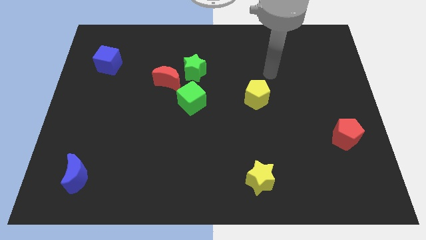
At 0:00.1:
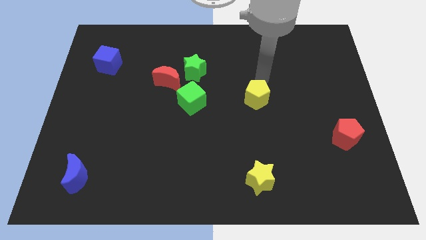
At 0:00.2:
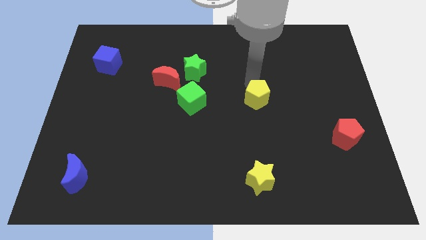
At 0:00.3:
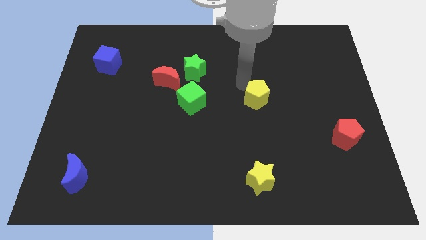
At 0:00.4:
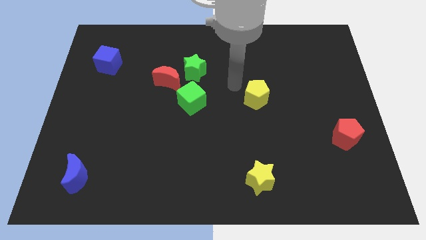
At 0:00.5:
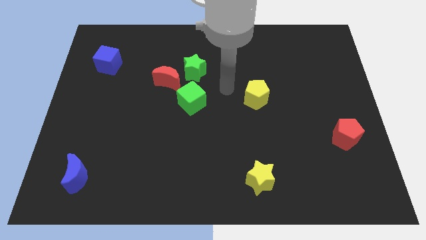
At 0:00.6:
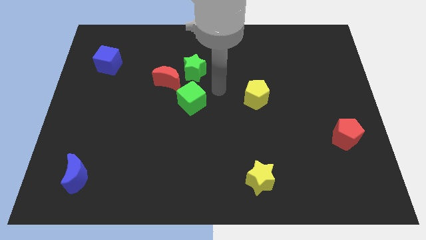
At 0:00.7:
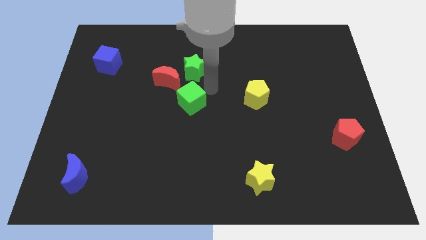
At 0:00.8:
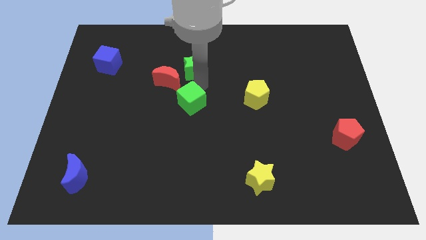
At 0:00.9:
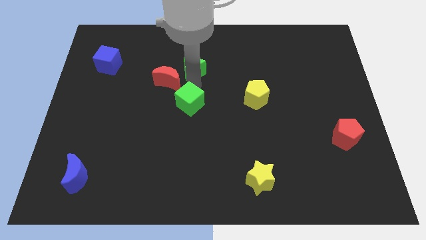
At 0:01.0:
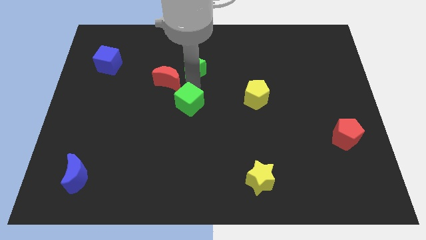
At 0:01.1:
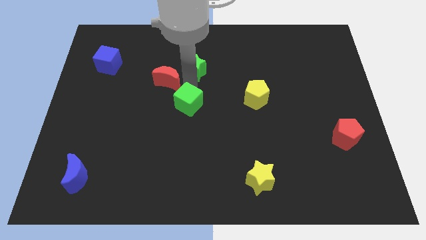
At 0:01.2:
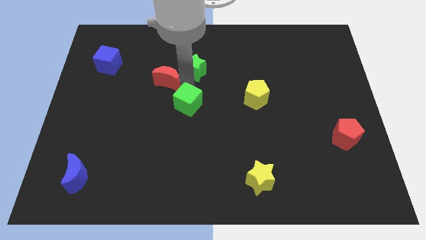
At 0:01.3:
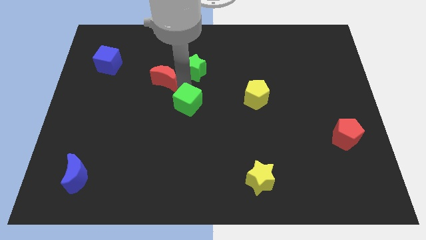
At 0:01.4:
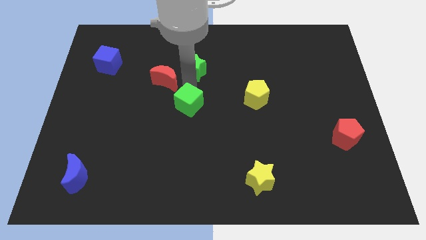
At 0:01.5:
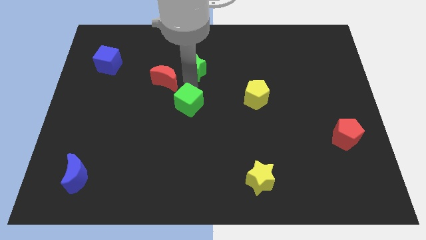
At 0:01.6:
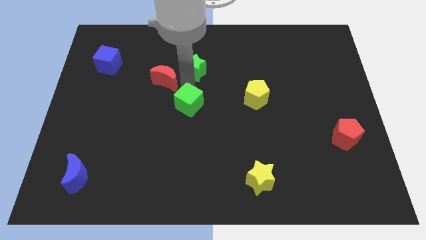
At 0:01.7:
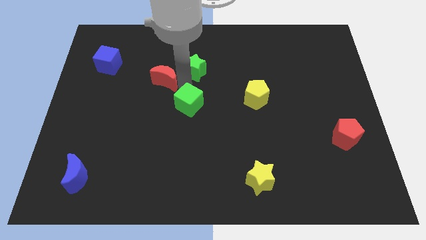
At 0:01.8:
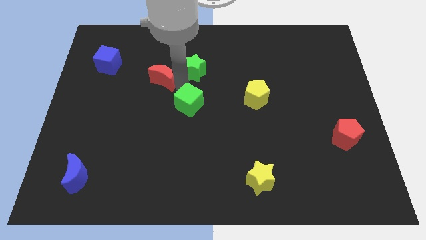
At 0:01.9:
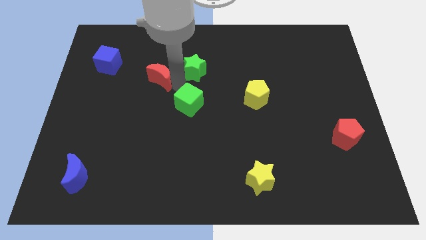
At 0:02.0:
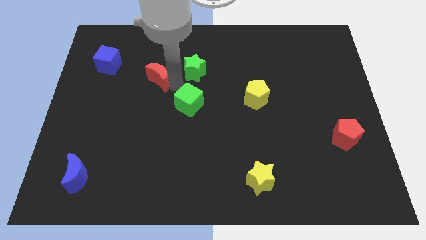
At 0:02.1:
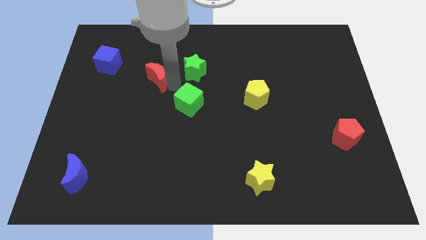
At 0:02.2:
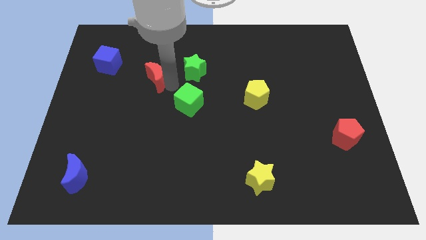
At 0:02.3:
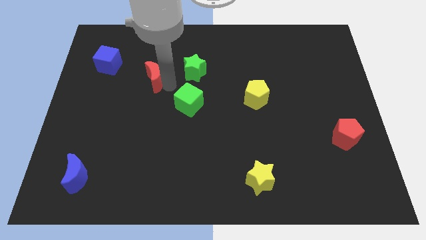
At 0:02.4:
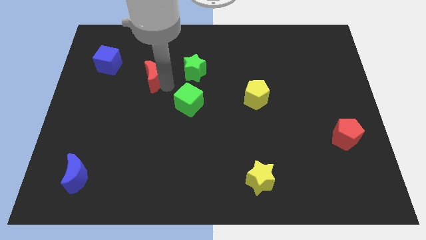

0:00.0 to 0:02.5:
pull the red moon apart from the green star and green cube

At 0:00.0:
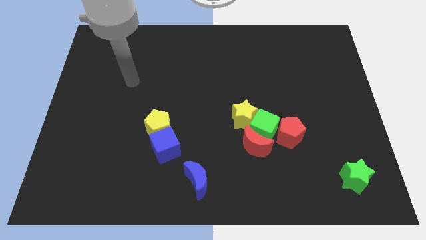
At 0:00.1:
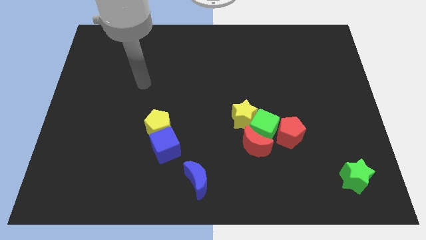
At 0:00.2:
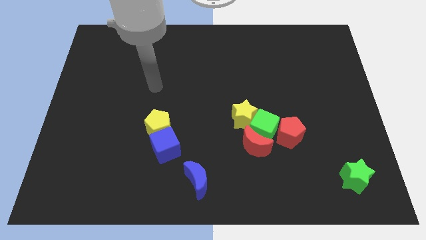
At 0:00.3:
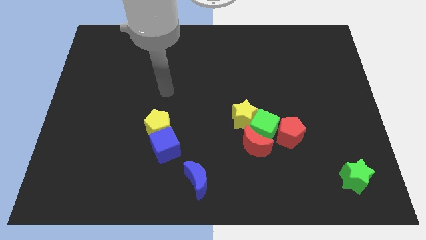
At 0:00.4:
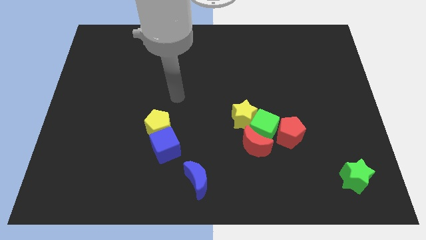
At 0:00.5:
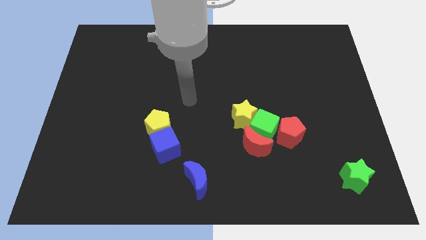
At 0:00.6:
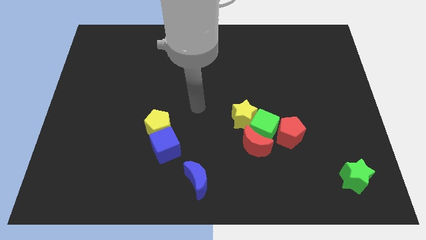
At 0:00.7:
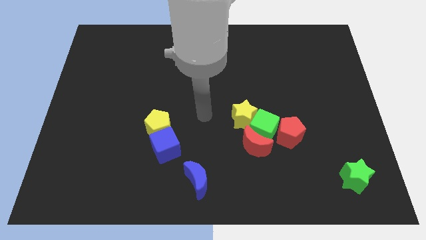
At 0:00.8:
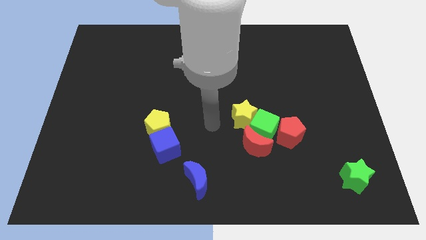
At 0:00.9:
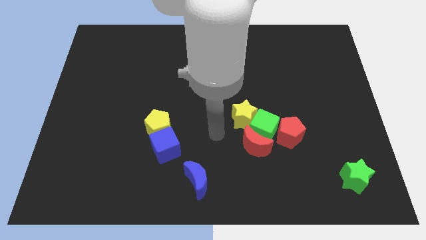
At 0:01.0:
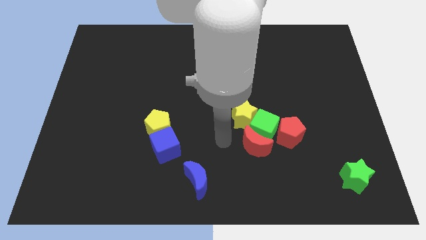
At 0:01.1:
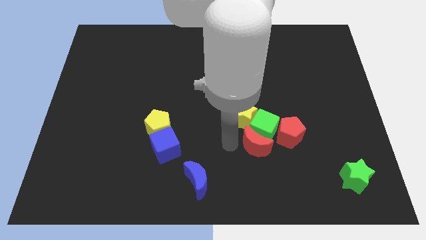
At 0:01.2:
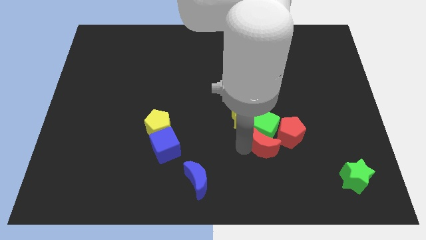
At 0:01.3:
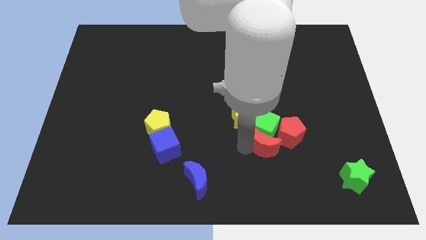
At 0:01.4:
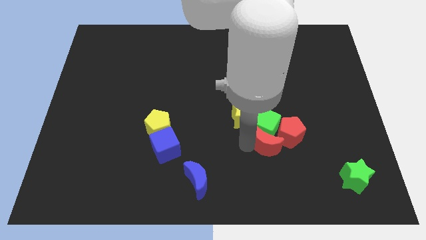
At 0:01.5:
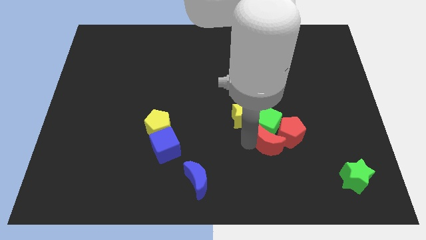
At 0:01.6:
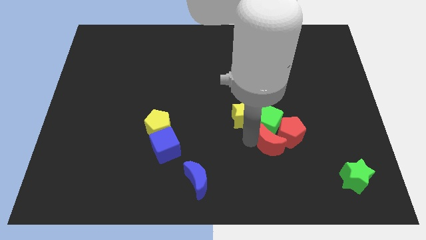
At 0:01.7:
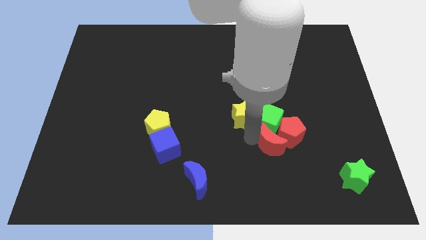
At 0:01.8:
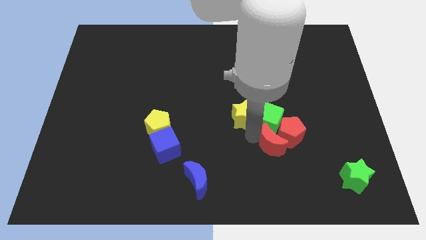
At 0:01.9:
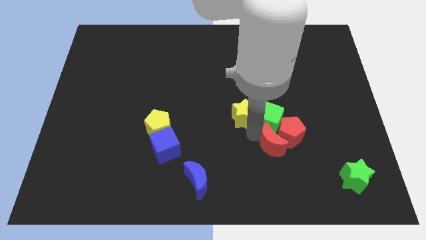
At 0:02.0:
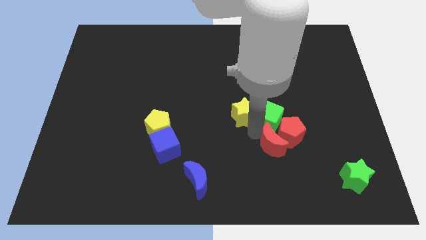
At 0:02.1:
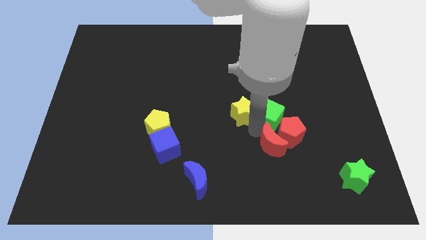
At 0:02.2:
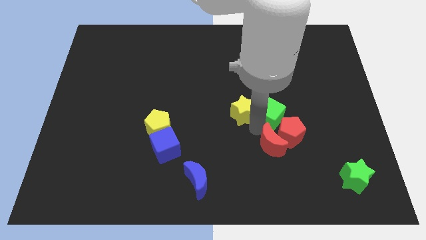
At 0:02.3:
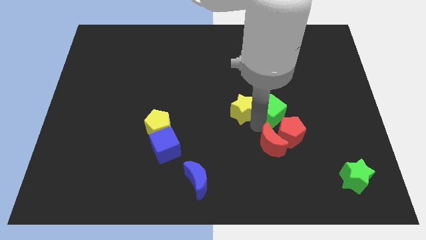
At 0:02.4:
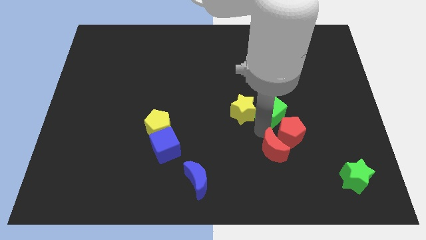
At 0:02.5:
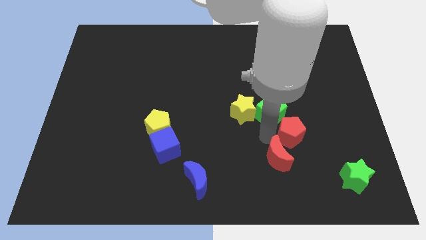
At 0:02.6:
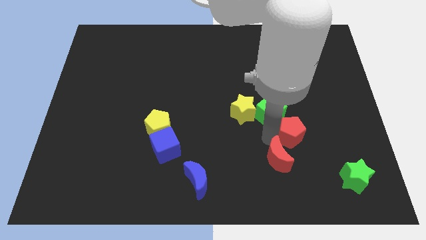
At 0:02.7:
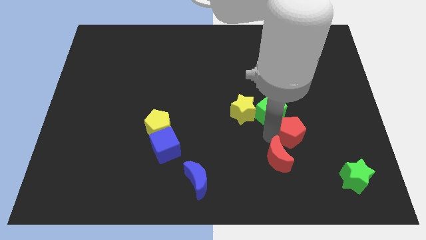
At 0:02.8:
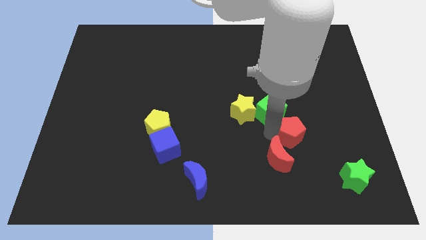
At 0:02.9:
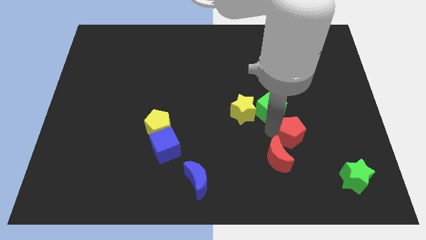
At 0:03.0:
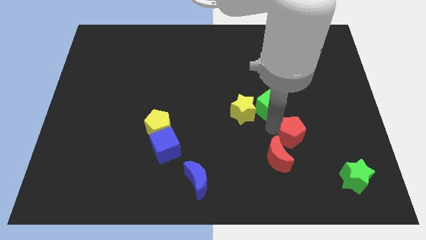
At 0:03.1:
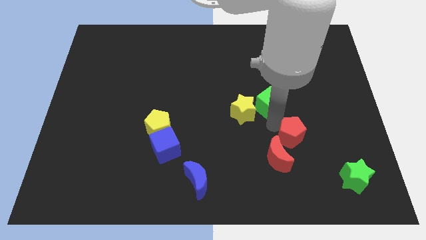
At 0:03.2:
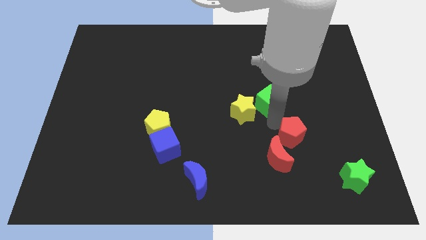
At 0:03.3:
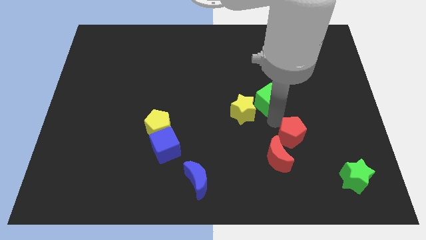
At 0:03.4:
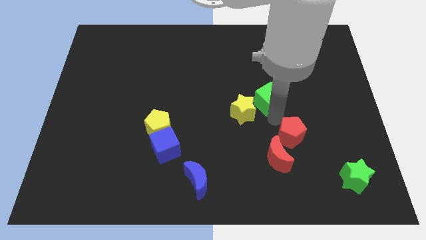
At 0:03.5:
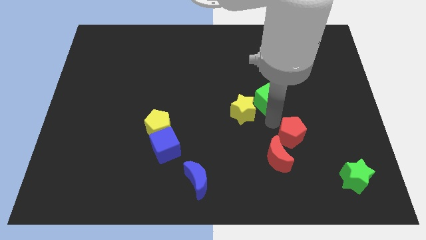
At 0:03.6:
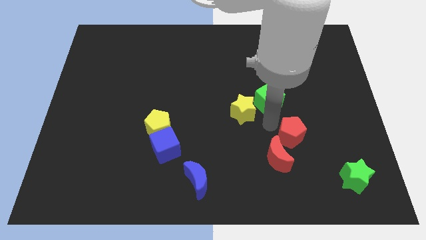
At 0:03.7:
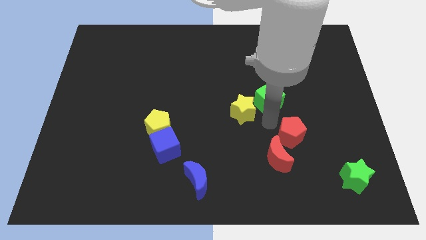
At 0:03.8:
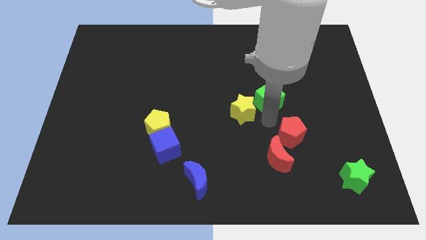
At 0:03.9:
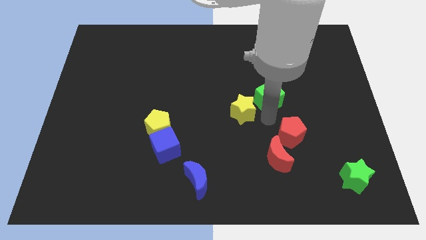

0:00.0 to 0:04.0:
move the green cube away from the red moon, yellow star, and red pentagon

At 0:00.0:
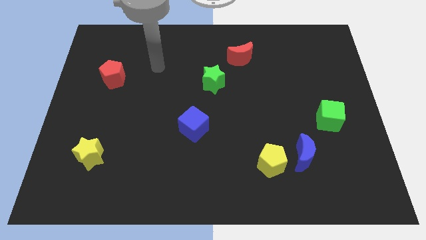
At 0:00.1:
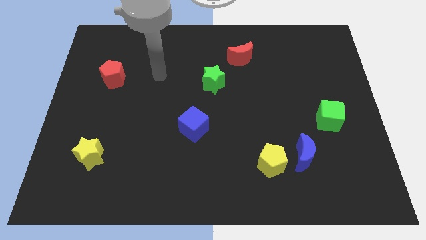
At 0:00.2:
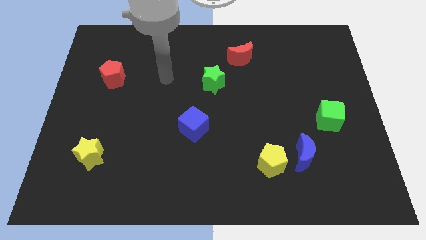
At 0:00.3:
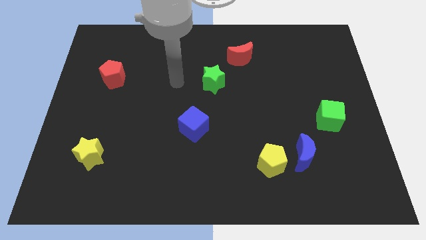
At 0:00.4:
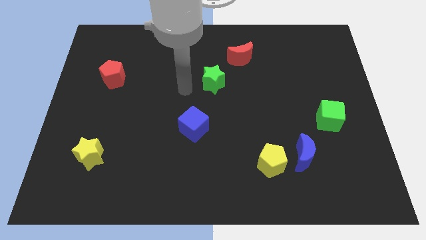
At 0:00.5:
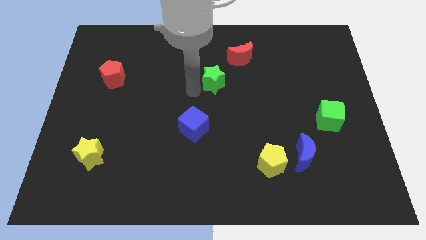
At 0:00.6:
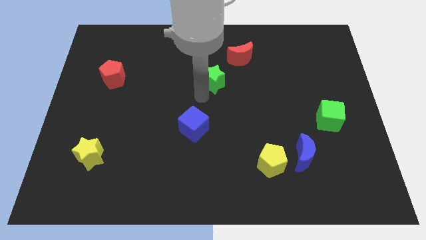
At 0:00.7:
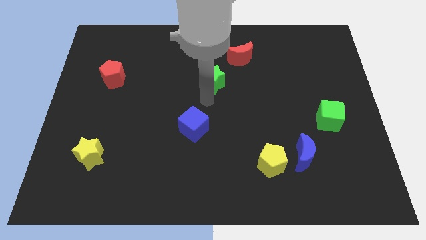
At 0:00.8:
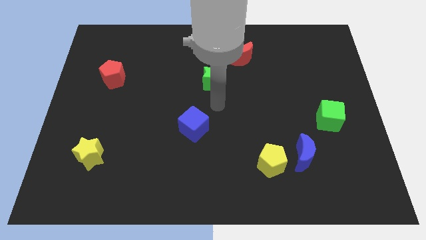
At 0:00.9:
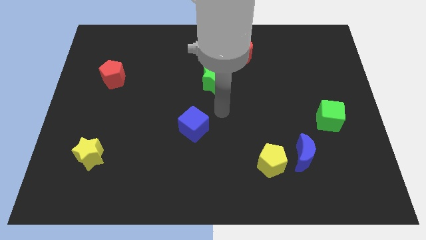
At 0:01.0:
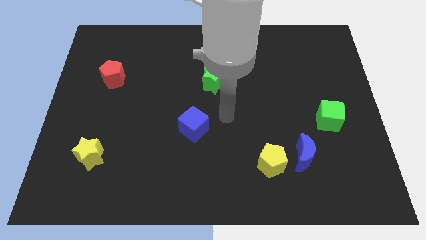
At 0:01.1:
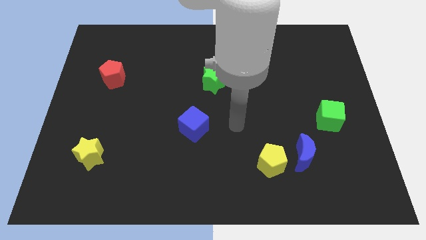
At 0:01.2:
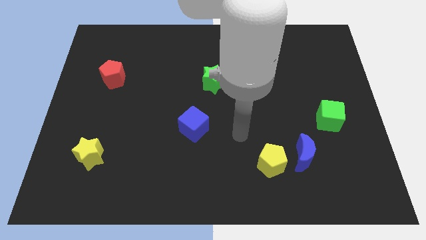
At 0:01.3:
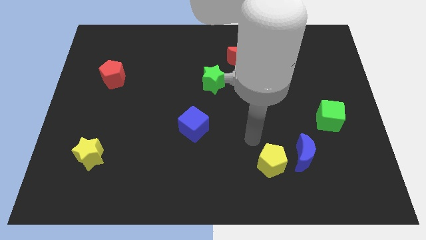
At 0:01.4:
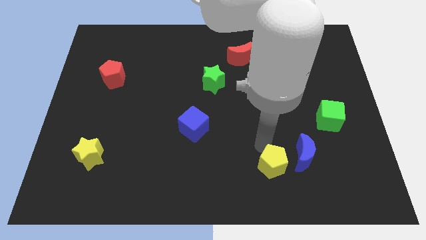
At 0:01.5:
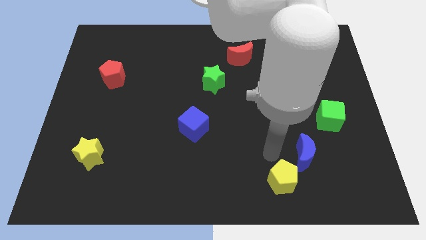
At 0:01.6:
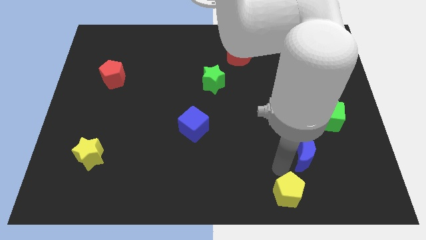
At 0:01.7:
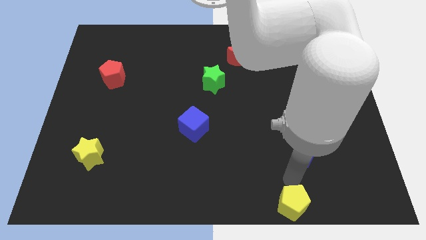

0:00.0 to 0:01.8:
separate the blue moon from the yellow pentagon

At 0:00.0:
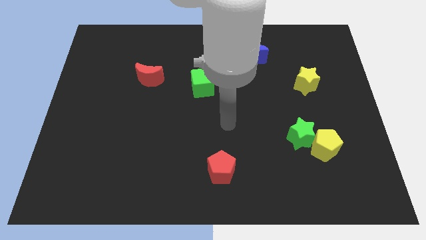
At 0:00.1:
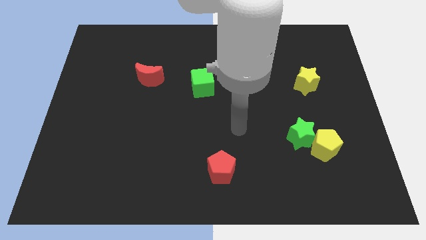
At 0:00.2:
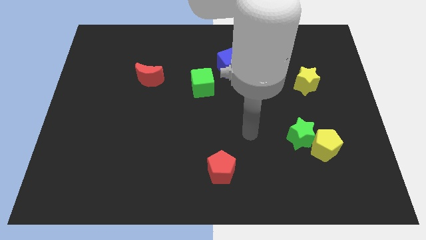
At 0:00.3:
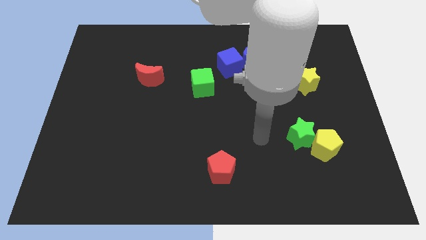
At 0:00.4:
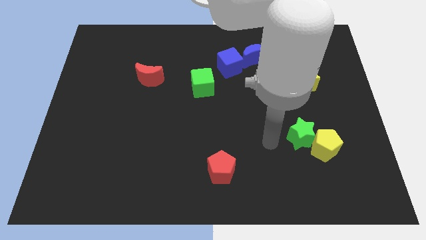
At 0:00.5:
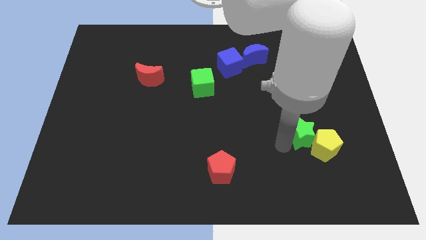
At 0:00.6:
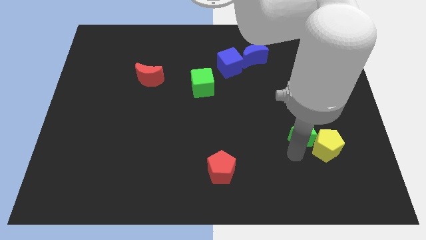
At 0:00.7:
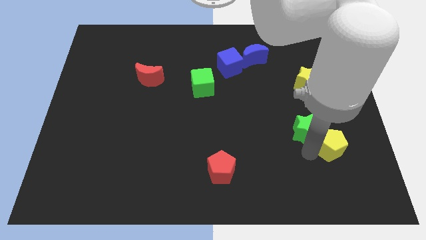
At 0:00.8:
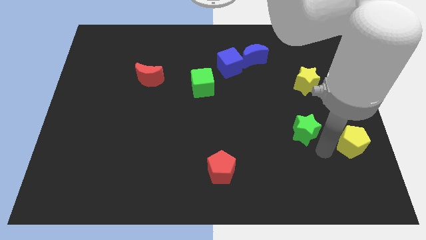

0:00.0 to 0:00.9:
separate the green star from the yellow pentagon

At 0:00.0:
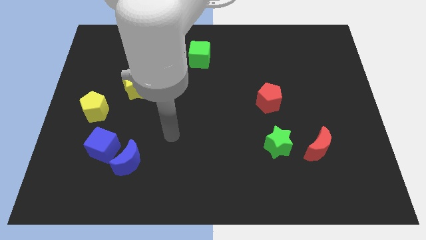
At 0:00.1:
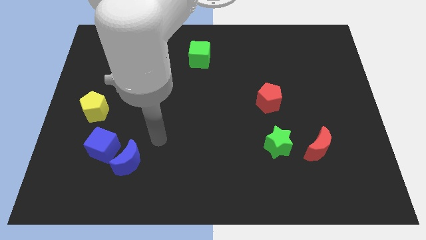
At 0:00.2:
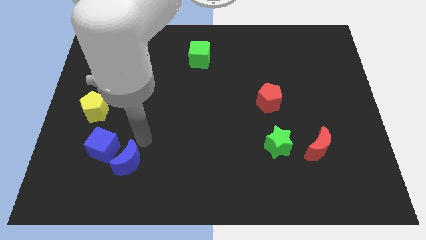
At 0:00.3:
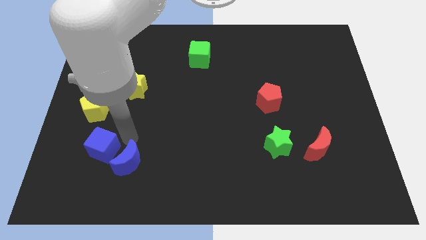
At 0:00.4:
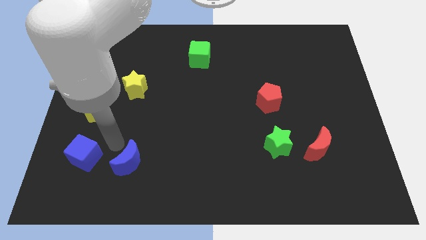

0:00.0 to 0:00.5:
move the blue moon away from the blue cube
